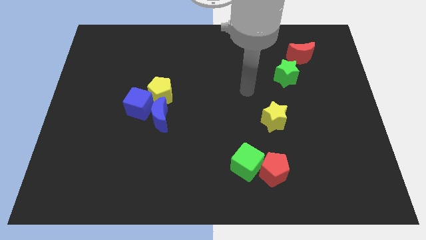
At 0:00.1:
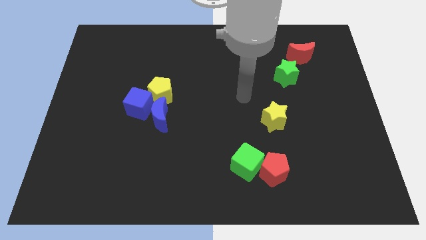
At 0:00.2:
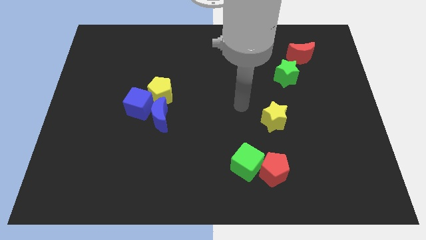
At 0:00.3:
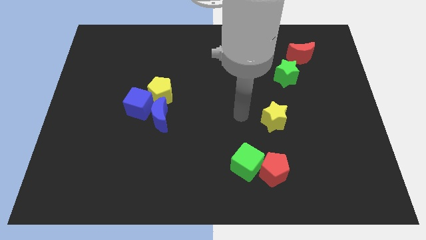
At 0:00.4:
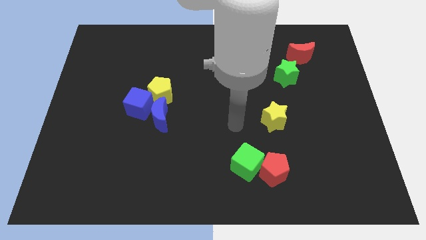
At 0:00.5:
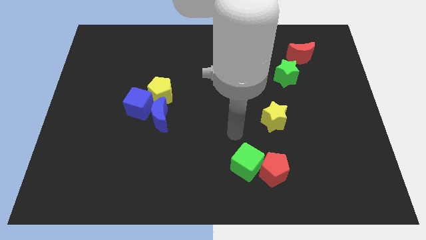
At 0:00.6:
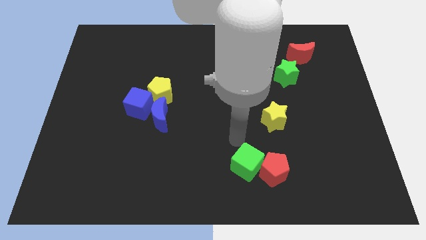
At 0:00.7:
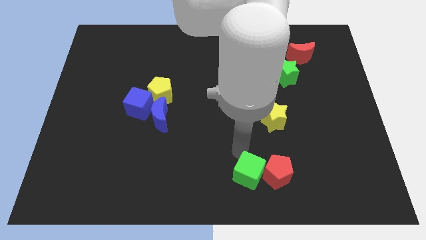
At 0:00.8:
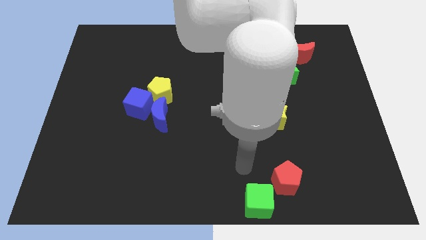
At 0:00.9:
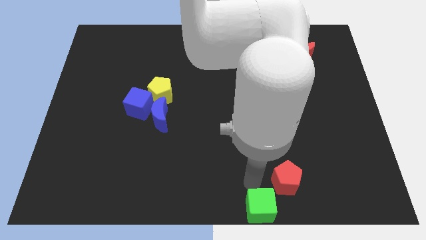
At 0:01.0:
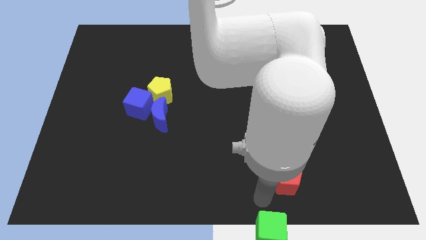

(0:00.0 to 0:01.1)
pull the red pentagon apart from the green cube

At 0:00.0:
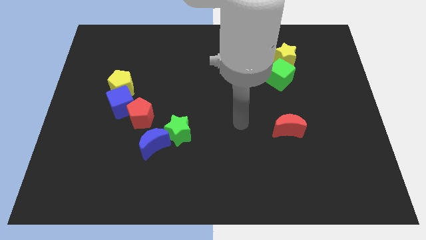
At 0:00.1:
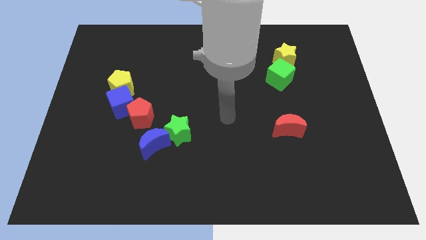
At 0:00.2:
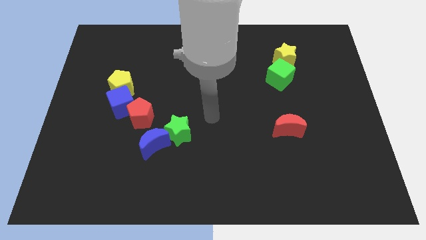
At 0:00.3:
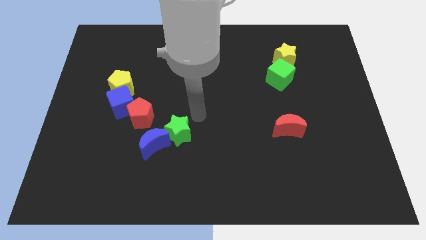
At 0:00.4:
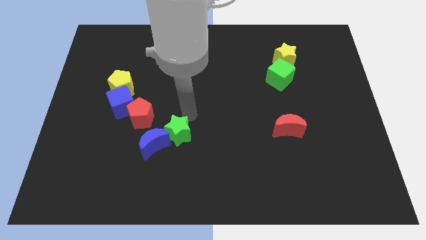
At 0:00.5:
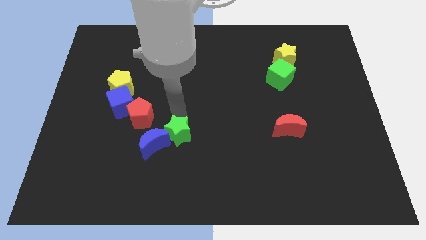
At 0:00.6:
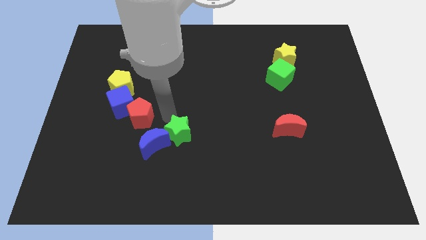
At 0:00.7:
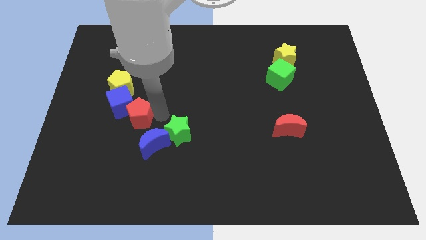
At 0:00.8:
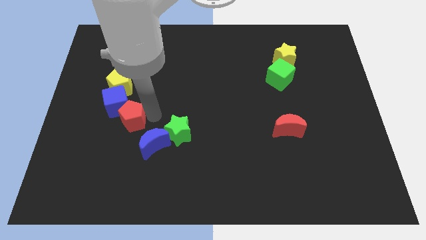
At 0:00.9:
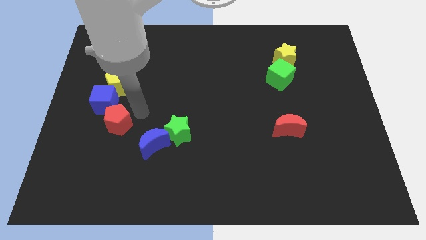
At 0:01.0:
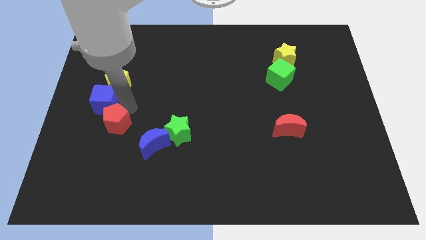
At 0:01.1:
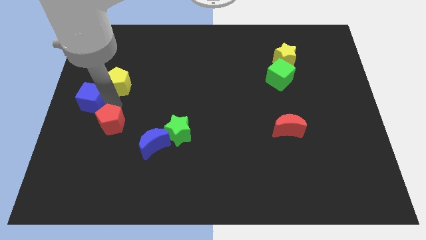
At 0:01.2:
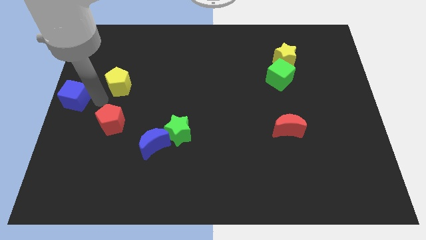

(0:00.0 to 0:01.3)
move the yellow pentagon away from the blue cube

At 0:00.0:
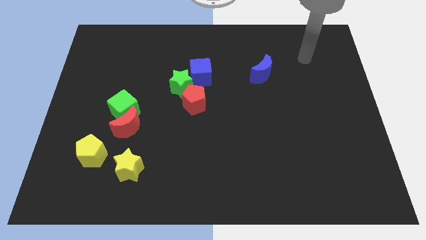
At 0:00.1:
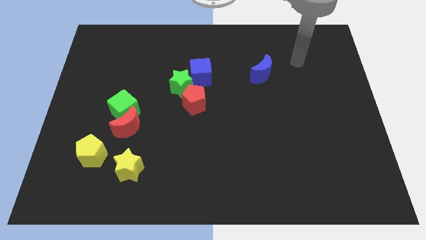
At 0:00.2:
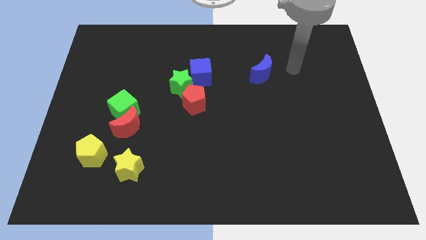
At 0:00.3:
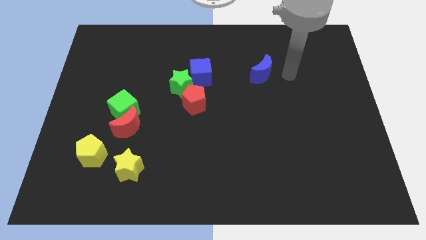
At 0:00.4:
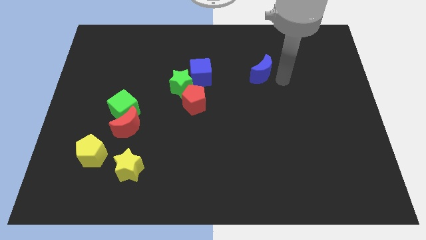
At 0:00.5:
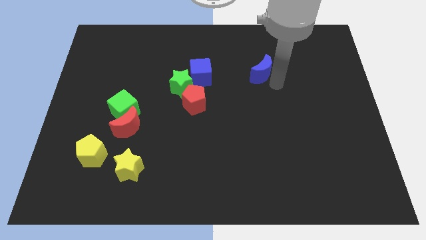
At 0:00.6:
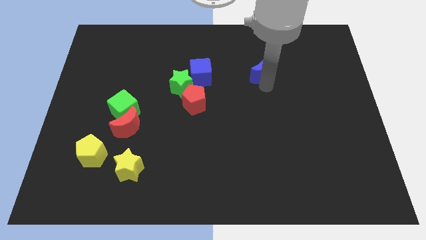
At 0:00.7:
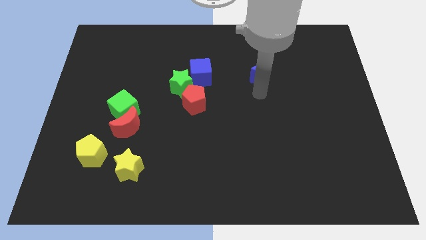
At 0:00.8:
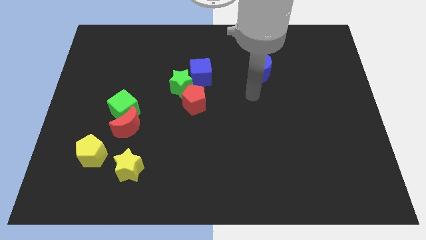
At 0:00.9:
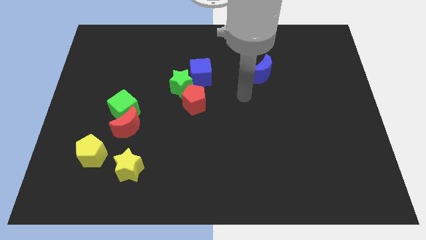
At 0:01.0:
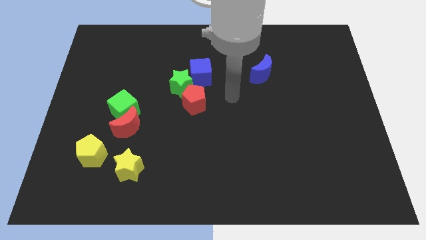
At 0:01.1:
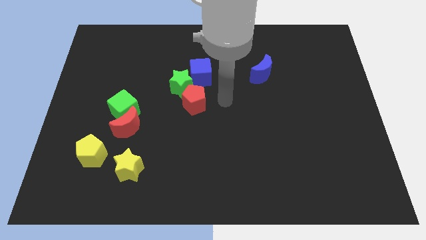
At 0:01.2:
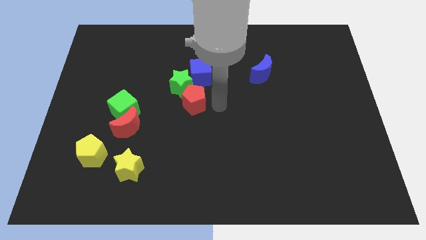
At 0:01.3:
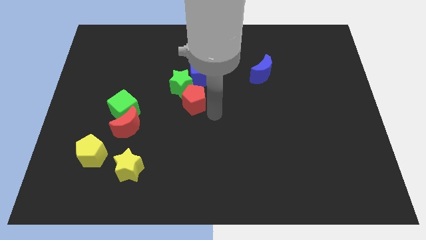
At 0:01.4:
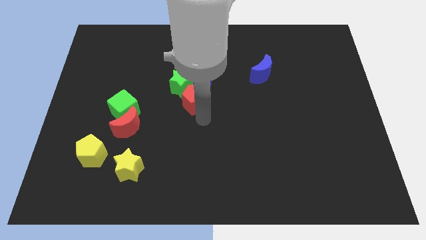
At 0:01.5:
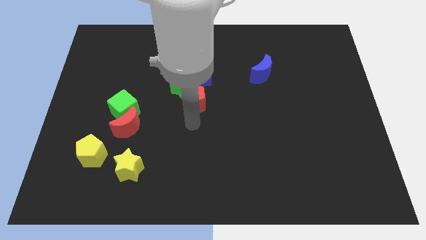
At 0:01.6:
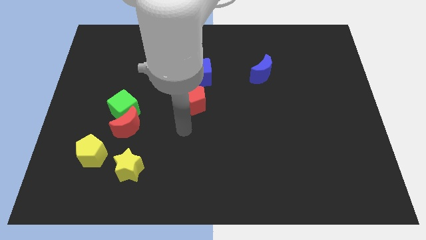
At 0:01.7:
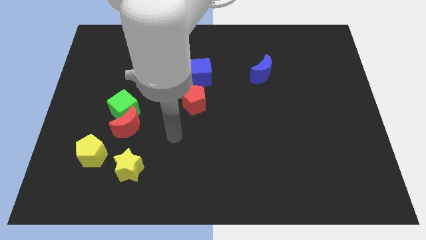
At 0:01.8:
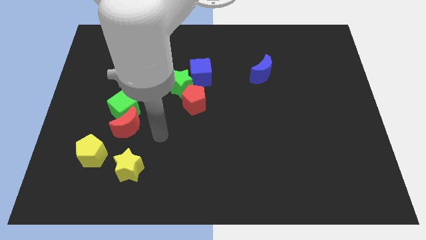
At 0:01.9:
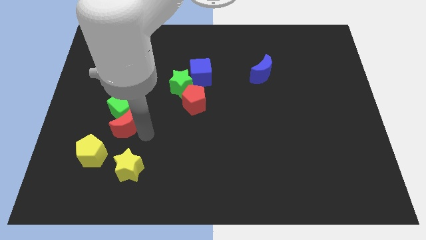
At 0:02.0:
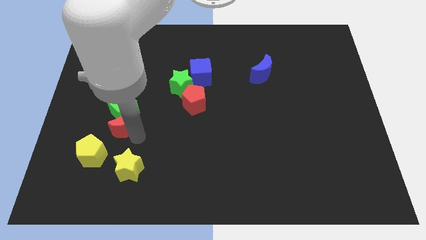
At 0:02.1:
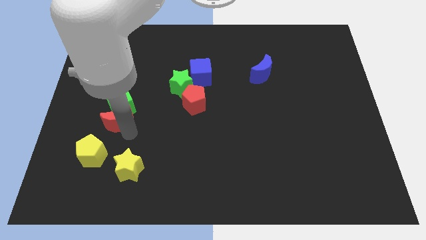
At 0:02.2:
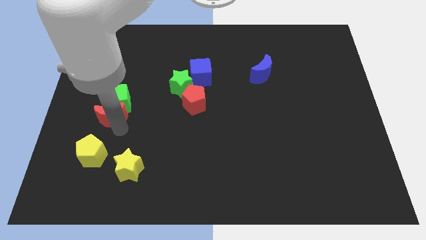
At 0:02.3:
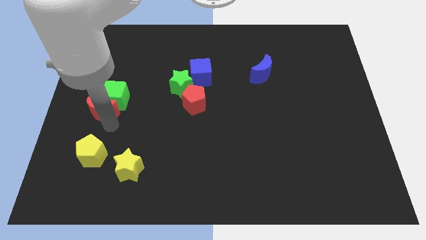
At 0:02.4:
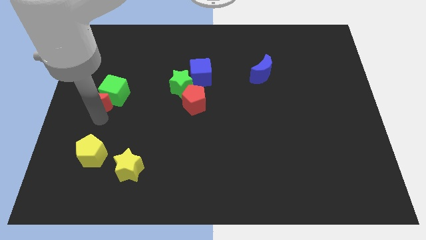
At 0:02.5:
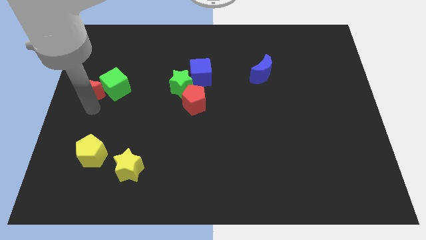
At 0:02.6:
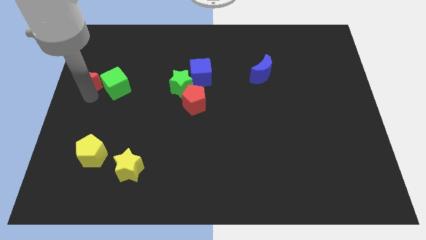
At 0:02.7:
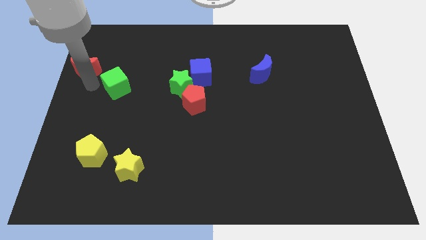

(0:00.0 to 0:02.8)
move the green cube away from the red moon

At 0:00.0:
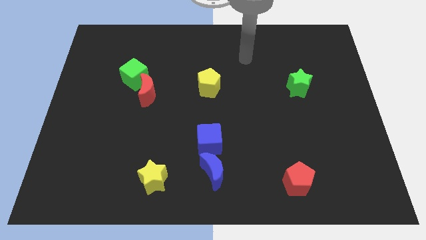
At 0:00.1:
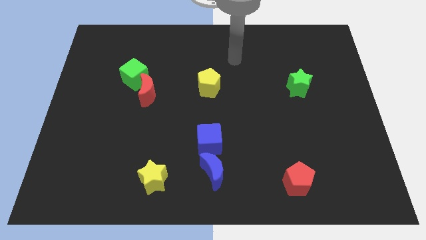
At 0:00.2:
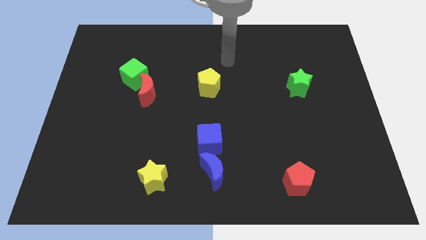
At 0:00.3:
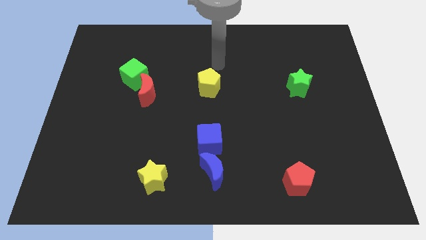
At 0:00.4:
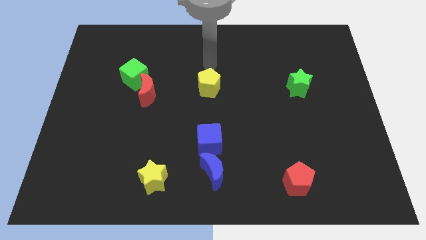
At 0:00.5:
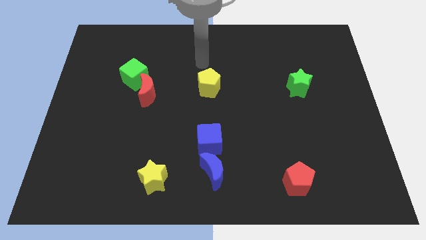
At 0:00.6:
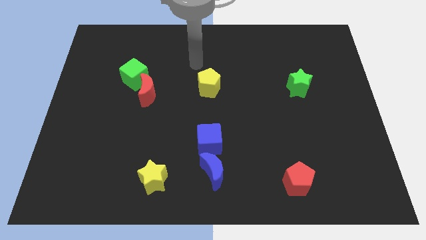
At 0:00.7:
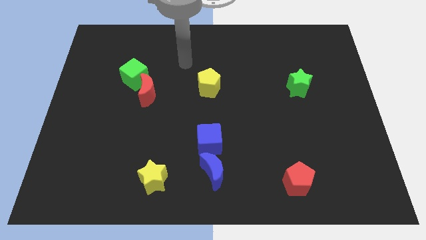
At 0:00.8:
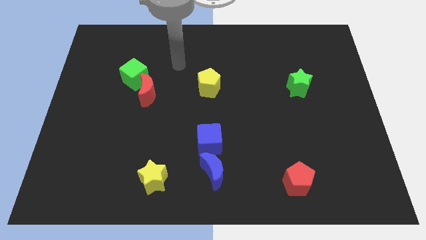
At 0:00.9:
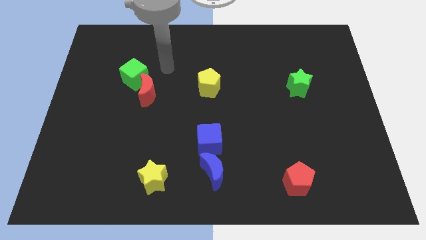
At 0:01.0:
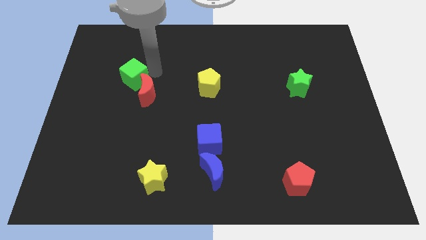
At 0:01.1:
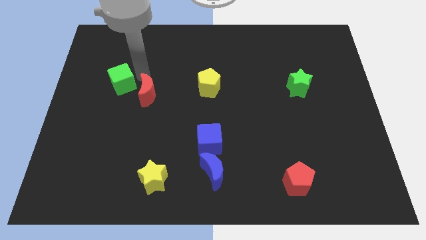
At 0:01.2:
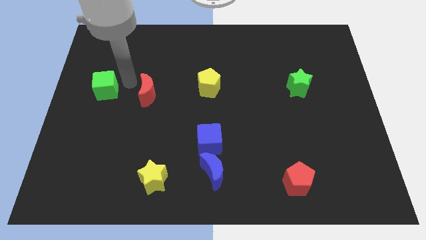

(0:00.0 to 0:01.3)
separate the red moon from the green cube

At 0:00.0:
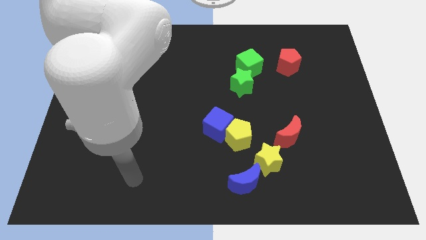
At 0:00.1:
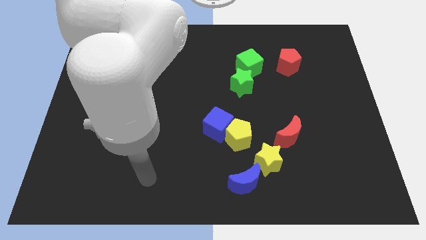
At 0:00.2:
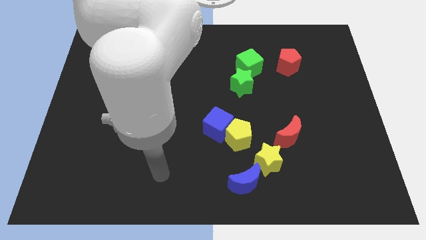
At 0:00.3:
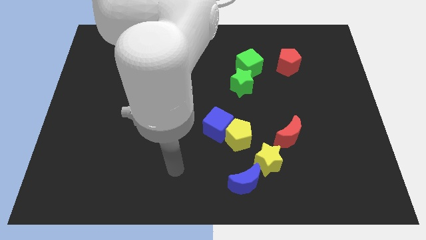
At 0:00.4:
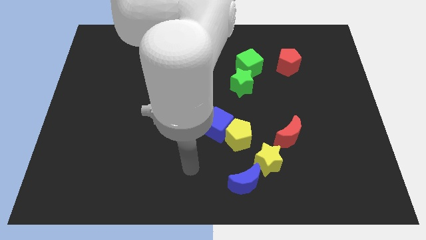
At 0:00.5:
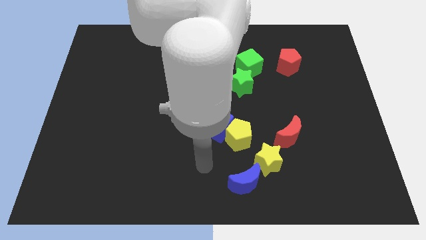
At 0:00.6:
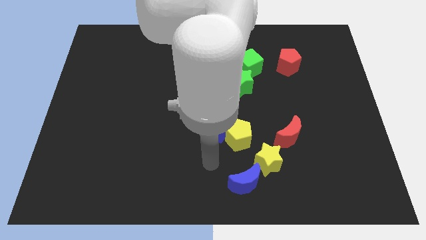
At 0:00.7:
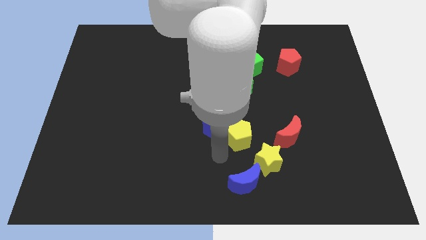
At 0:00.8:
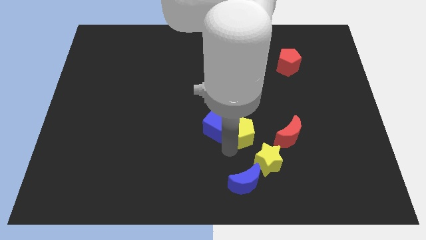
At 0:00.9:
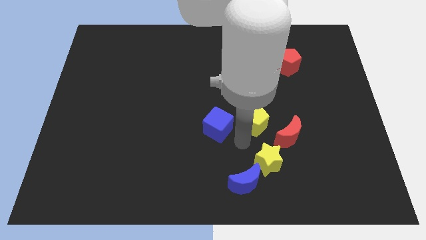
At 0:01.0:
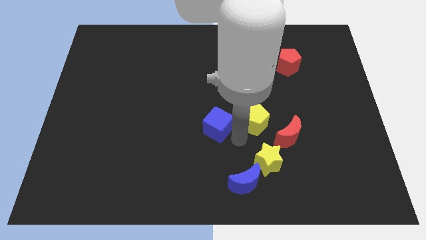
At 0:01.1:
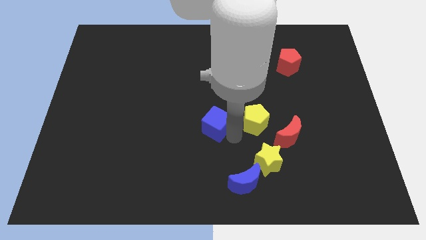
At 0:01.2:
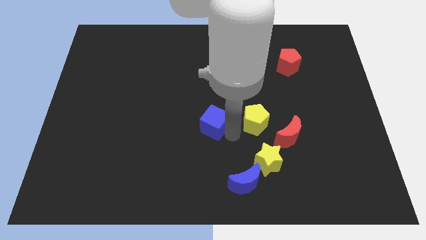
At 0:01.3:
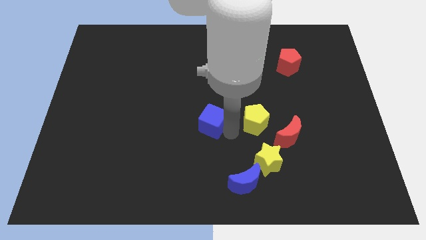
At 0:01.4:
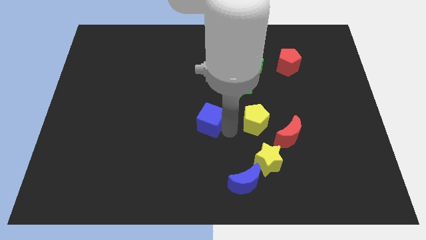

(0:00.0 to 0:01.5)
separate the blue cube from the yellow pentagon

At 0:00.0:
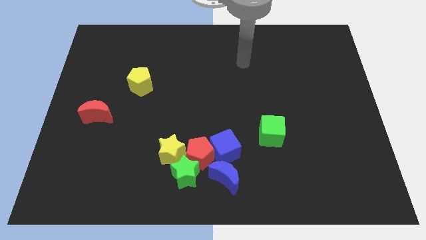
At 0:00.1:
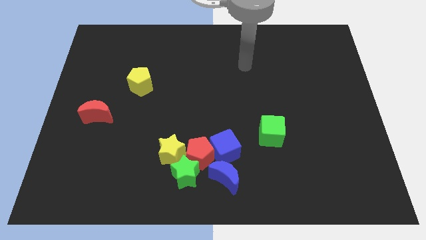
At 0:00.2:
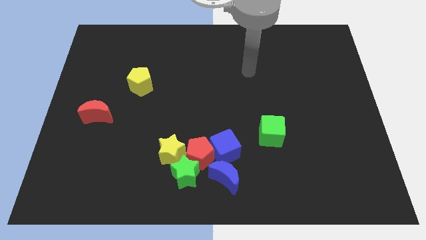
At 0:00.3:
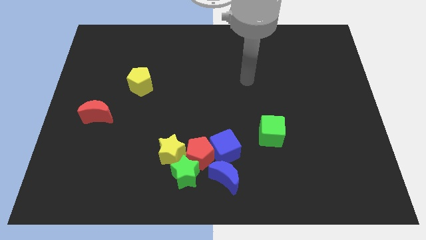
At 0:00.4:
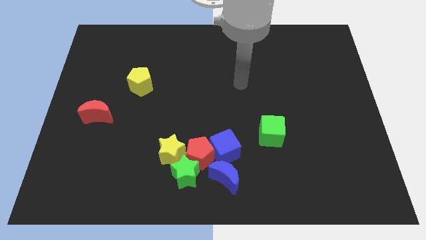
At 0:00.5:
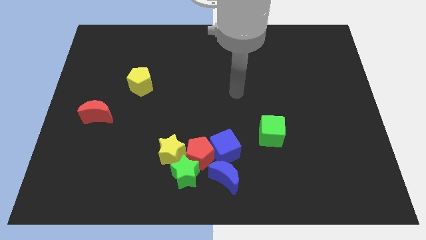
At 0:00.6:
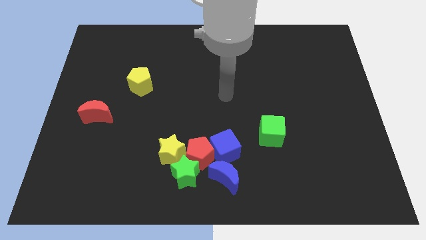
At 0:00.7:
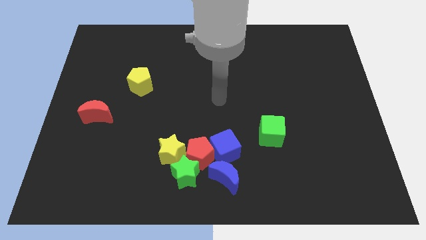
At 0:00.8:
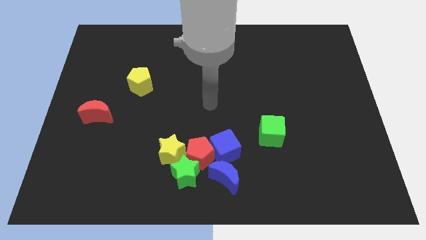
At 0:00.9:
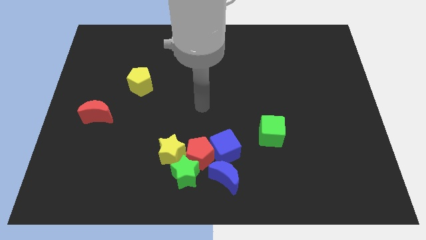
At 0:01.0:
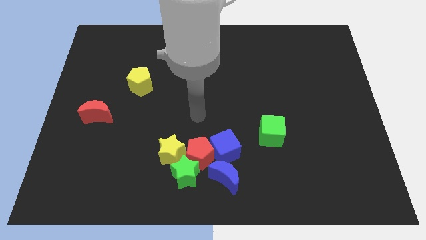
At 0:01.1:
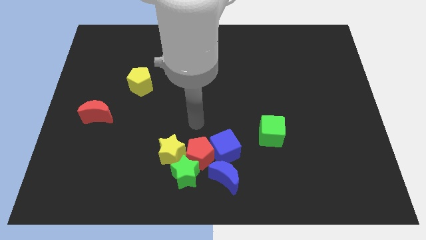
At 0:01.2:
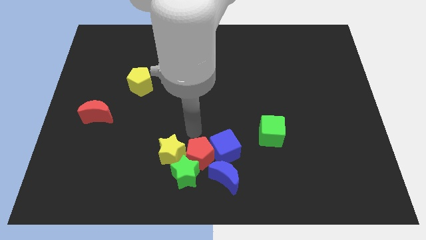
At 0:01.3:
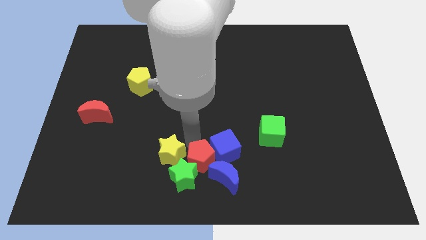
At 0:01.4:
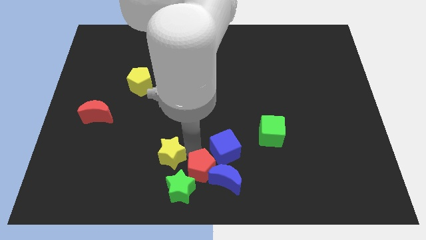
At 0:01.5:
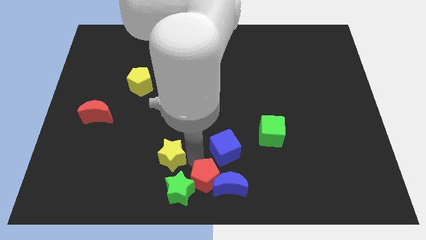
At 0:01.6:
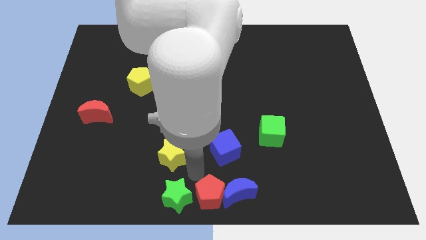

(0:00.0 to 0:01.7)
move the yellow star away from the red pentagon and green star
